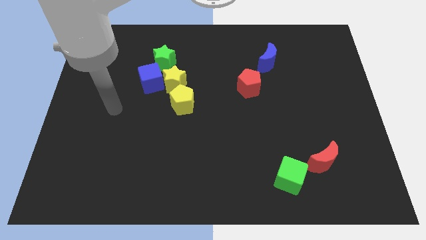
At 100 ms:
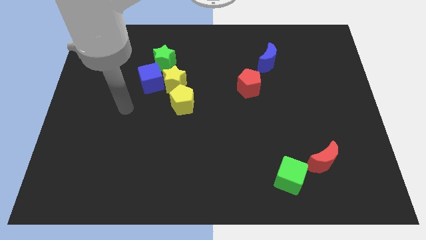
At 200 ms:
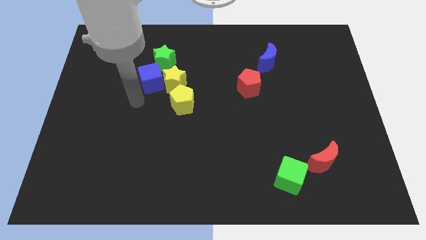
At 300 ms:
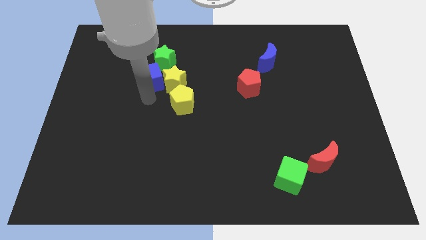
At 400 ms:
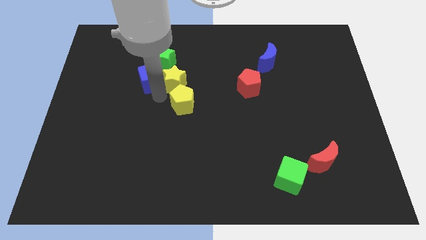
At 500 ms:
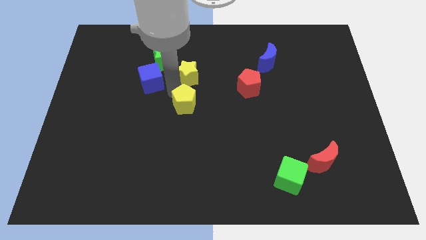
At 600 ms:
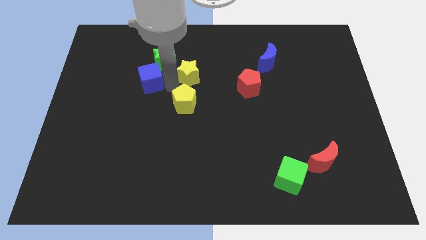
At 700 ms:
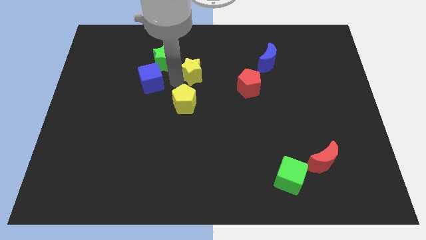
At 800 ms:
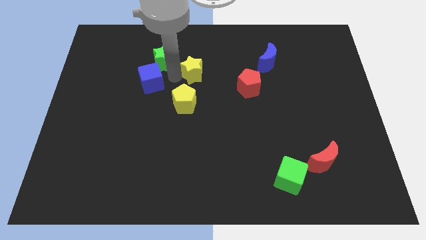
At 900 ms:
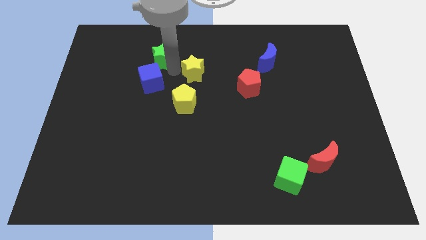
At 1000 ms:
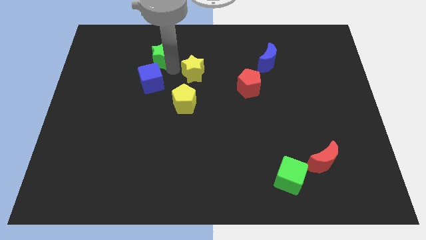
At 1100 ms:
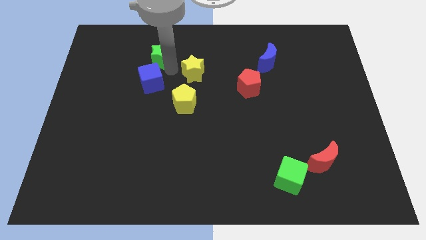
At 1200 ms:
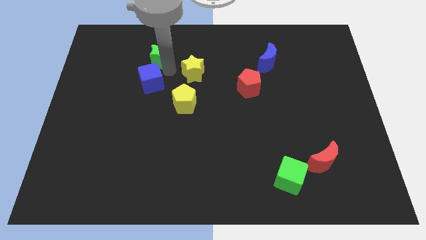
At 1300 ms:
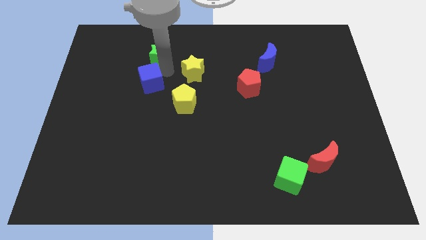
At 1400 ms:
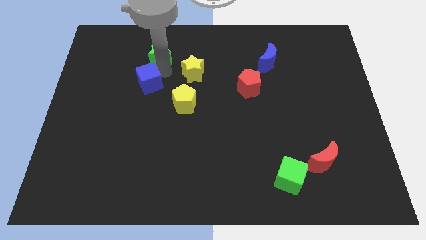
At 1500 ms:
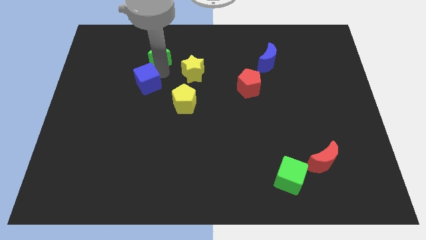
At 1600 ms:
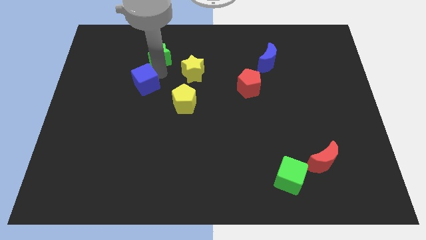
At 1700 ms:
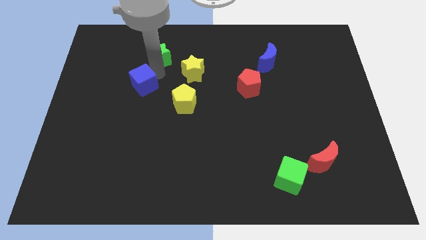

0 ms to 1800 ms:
move the blue cube away from the yellow star and green star

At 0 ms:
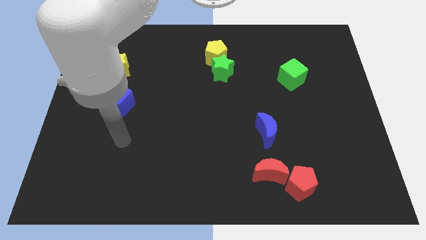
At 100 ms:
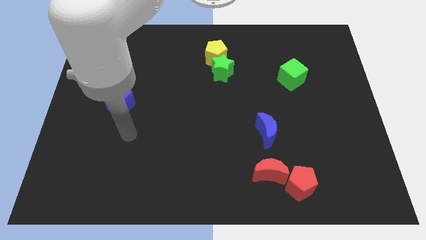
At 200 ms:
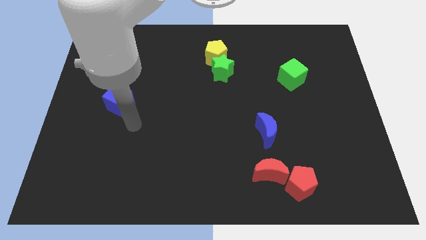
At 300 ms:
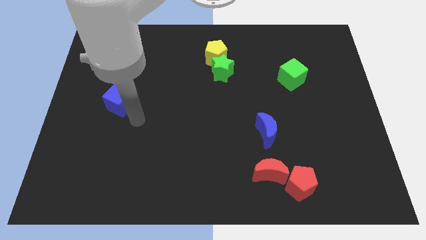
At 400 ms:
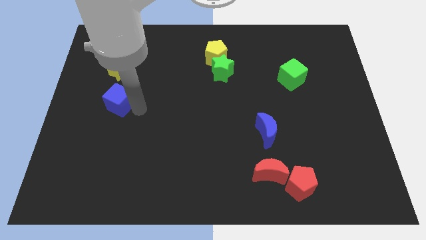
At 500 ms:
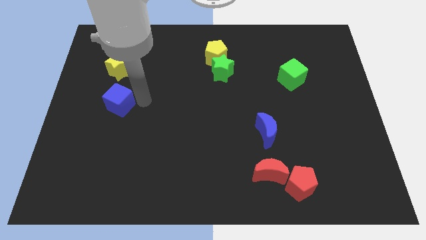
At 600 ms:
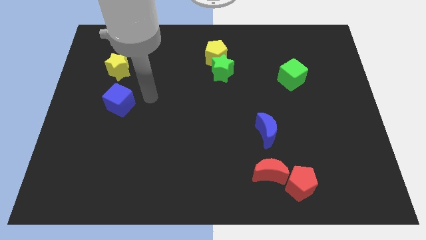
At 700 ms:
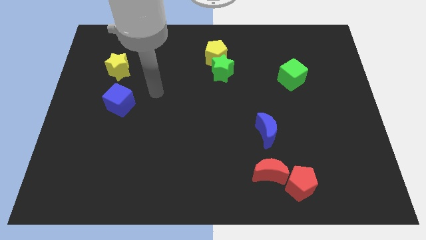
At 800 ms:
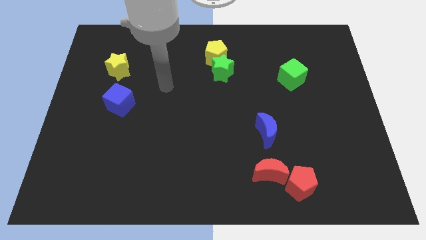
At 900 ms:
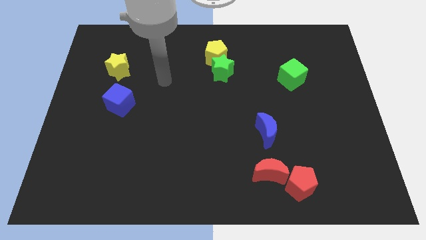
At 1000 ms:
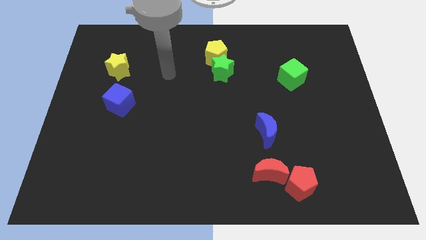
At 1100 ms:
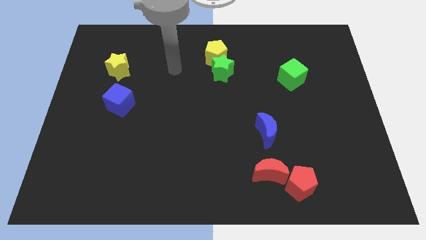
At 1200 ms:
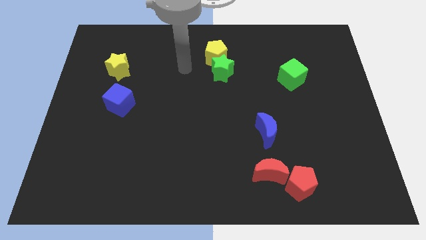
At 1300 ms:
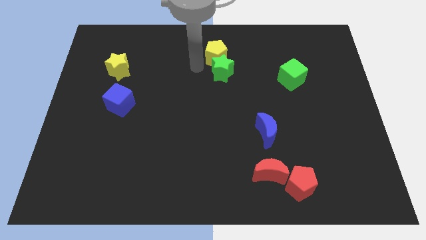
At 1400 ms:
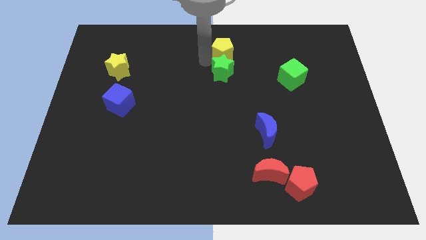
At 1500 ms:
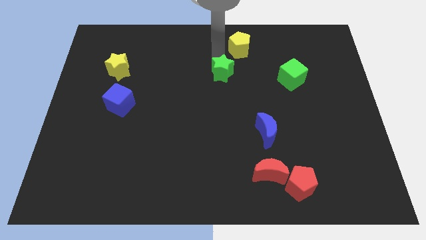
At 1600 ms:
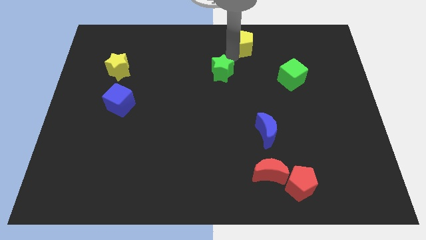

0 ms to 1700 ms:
pull the green star apart from the yellow pentagon

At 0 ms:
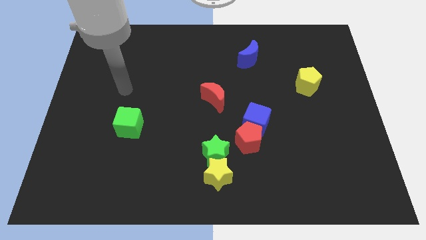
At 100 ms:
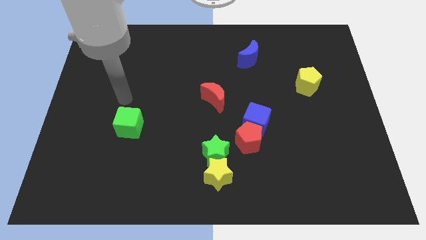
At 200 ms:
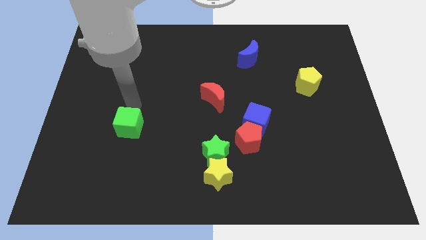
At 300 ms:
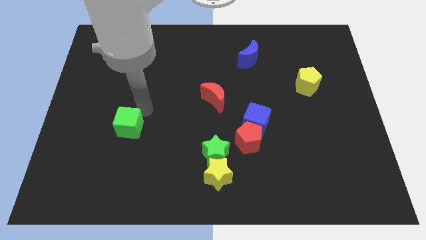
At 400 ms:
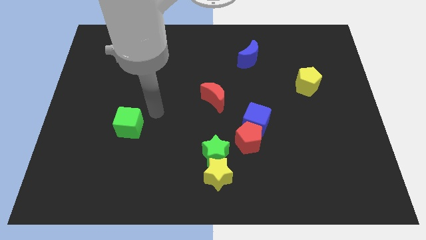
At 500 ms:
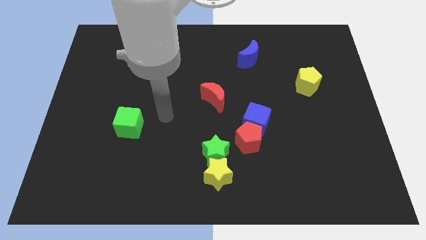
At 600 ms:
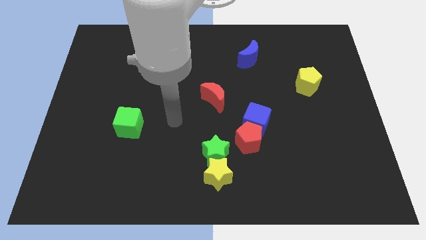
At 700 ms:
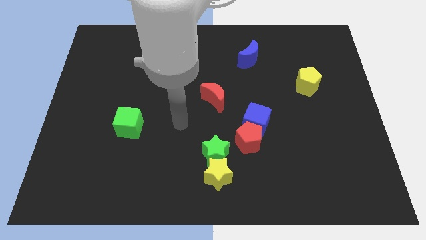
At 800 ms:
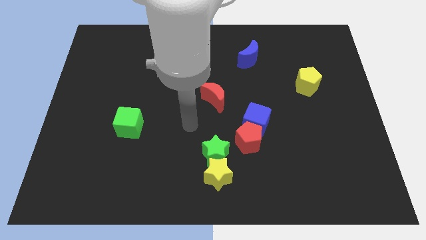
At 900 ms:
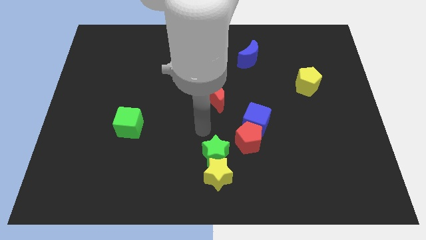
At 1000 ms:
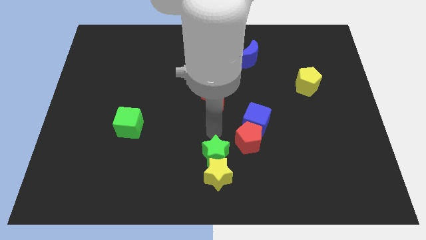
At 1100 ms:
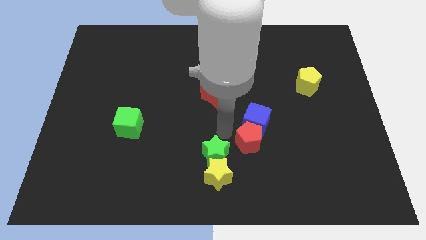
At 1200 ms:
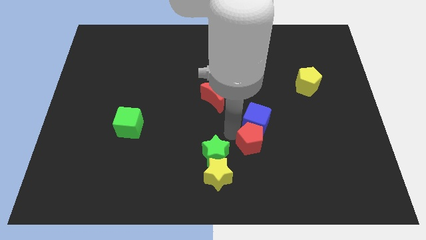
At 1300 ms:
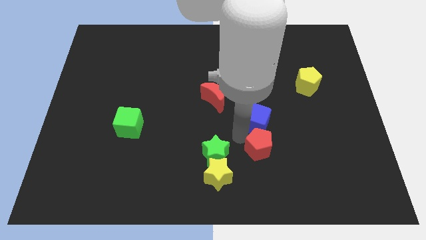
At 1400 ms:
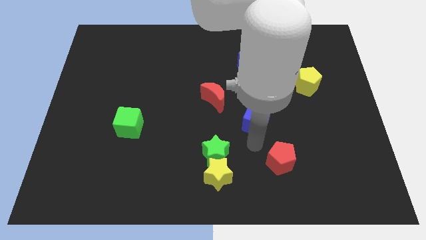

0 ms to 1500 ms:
move the blue cube away from the red pentagon

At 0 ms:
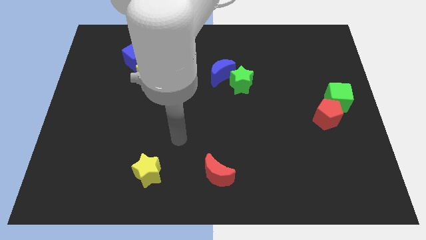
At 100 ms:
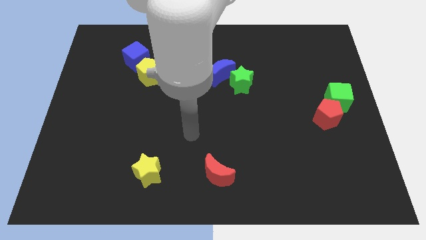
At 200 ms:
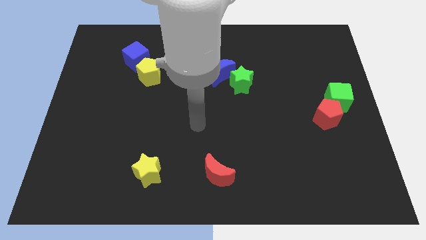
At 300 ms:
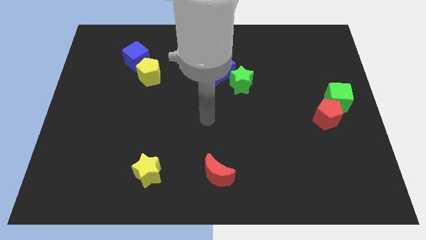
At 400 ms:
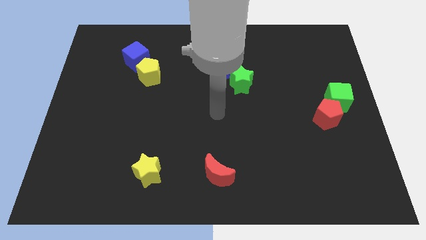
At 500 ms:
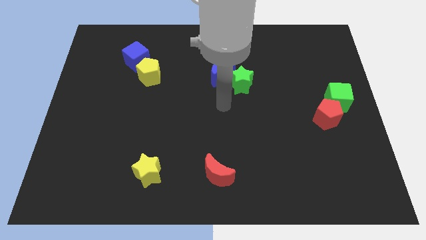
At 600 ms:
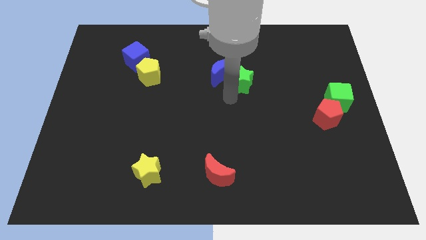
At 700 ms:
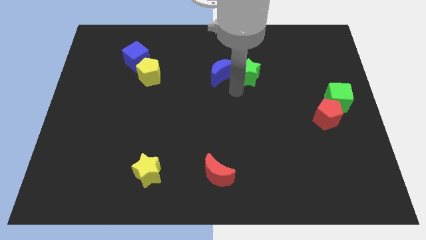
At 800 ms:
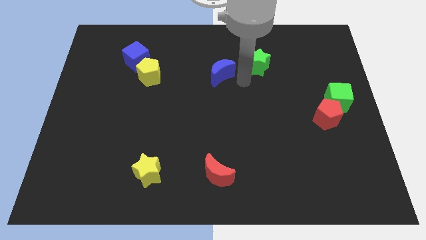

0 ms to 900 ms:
pull the blue moon apart from the green star

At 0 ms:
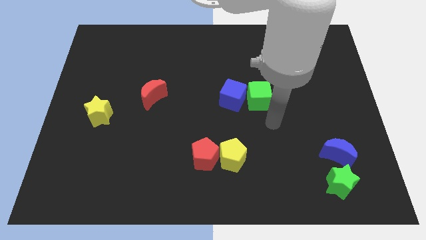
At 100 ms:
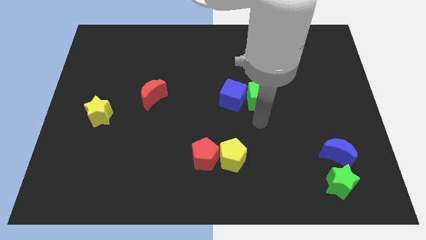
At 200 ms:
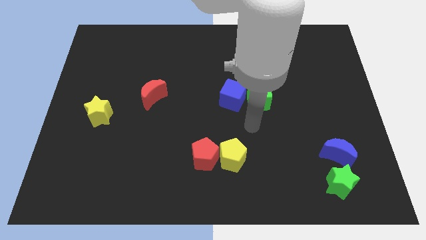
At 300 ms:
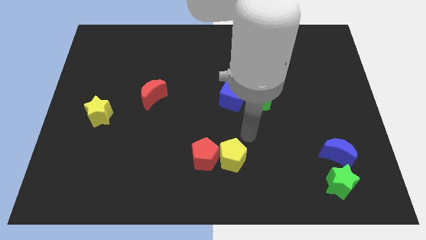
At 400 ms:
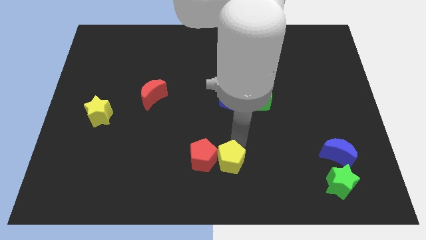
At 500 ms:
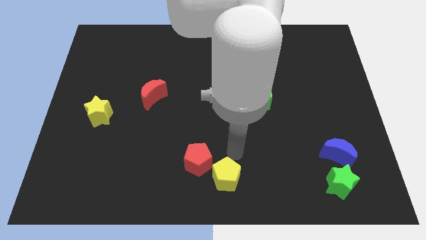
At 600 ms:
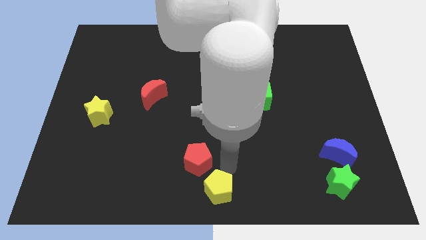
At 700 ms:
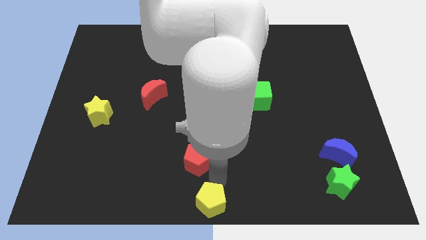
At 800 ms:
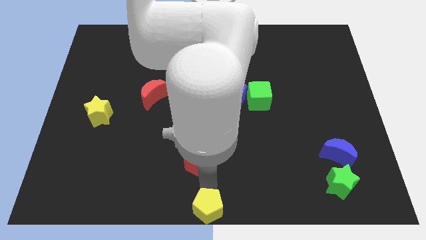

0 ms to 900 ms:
pull the red pentagon apart from the yellow pentagon

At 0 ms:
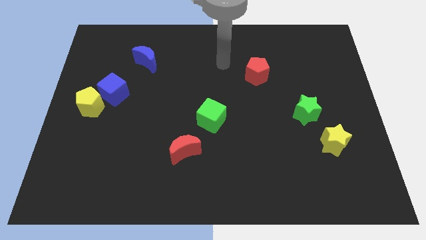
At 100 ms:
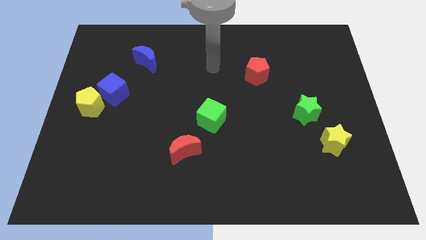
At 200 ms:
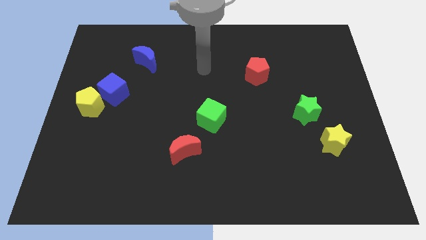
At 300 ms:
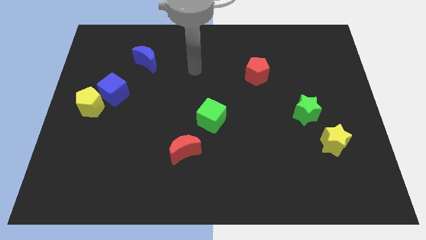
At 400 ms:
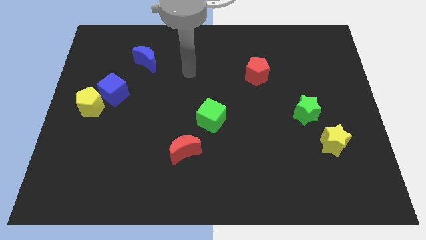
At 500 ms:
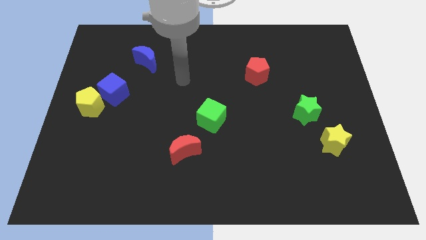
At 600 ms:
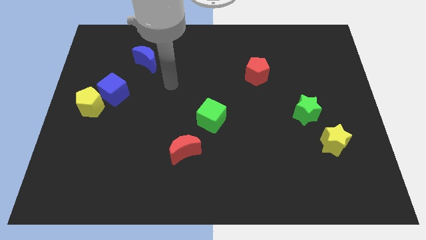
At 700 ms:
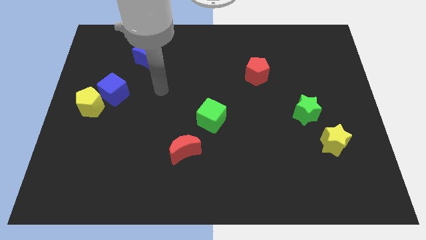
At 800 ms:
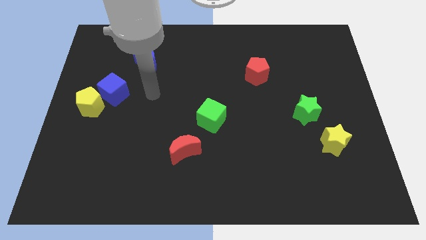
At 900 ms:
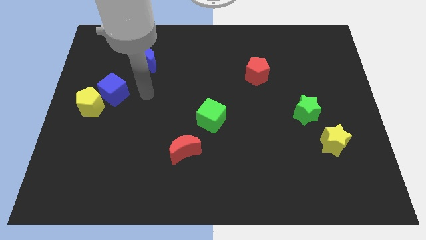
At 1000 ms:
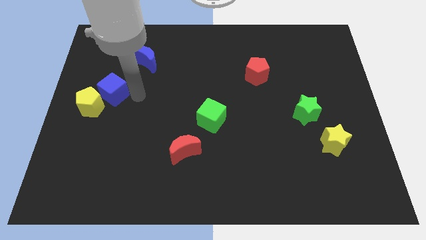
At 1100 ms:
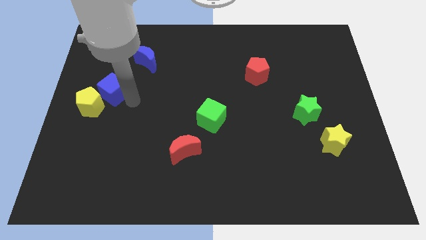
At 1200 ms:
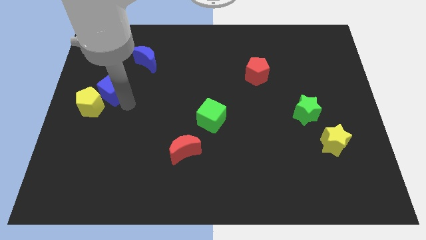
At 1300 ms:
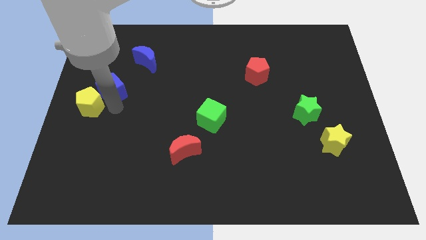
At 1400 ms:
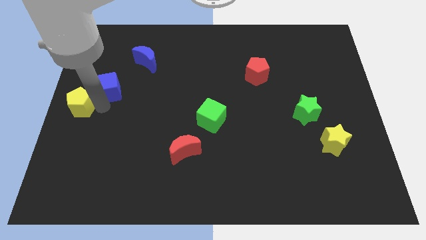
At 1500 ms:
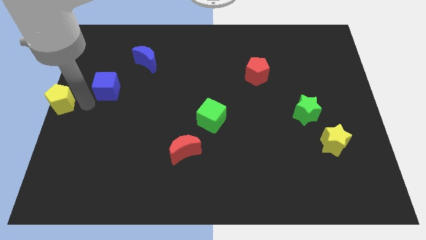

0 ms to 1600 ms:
pull the blue cube apart from the yellow pentagon

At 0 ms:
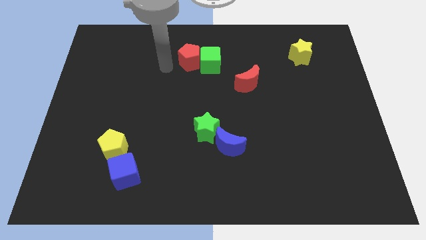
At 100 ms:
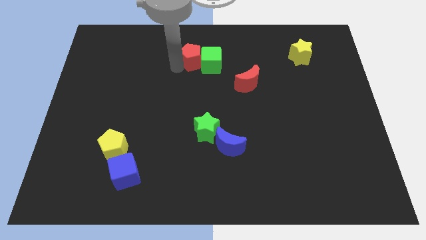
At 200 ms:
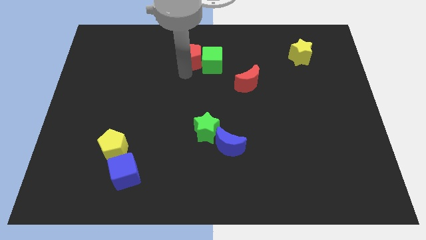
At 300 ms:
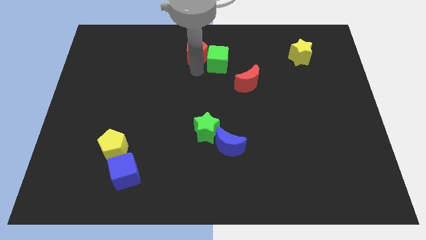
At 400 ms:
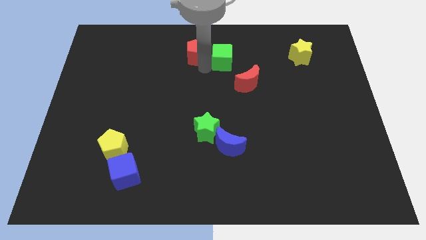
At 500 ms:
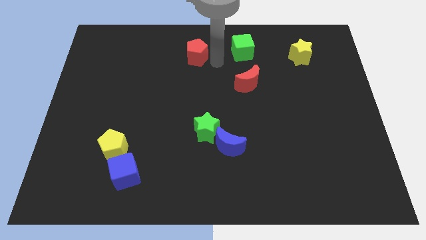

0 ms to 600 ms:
separate the red pentagon from the green cube

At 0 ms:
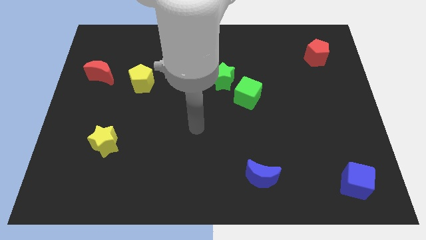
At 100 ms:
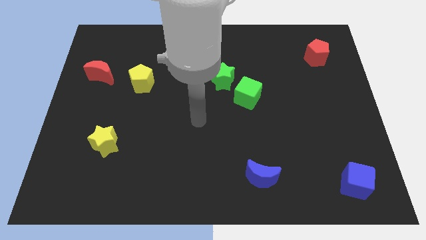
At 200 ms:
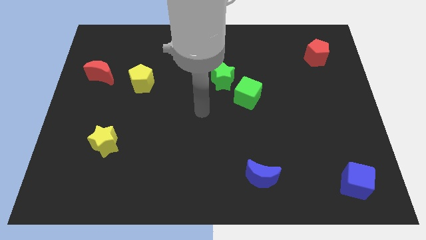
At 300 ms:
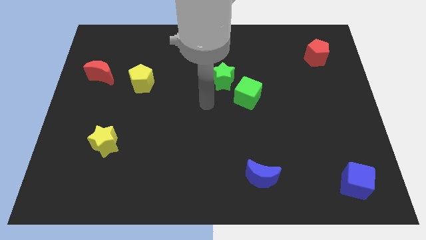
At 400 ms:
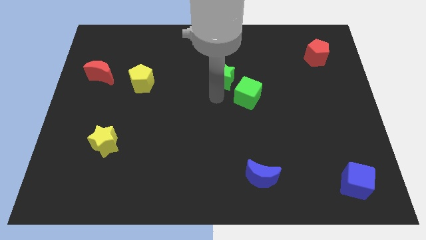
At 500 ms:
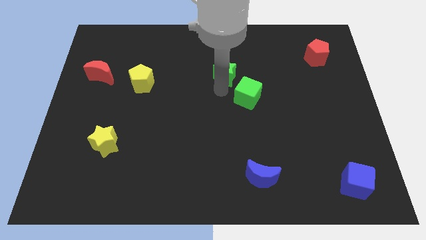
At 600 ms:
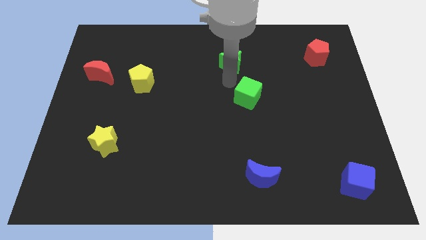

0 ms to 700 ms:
separate the green cube from the green star
